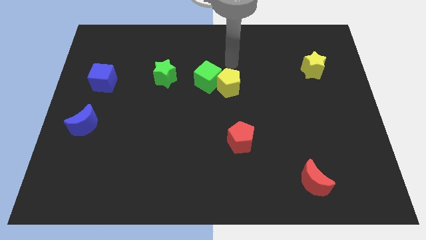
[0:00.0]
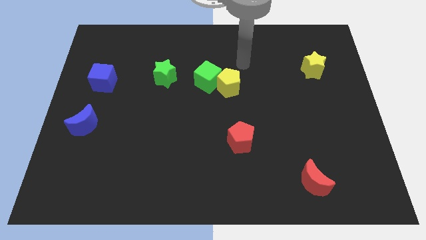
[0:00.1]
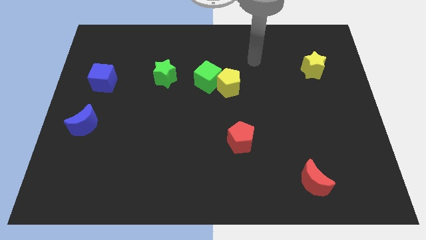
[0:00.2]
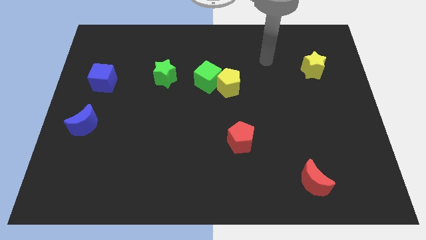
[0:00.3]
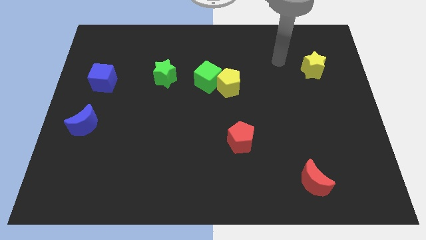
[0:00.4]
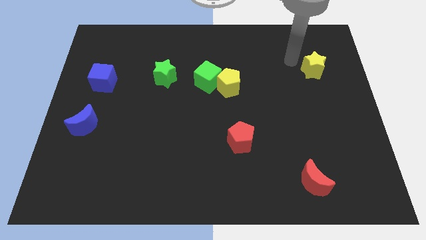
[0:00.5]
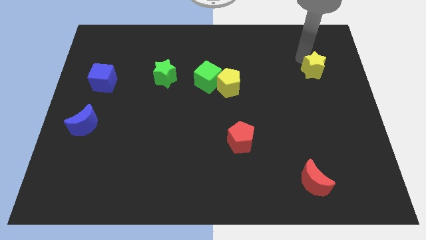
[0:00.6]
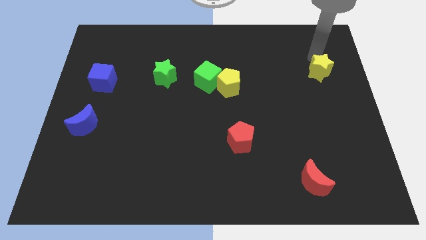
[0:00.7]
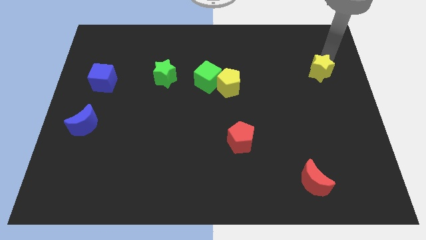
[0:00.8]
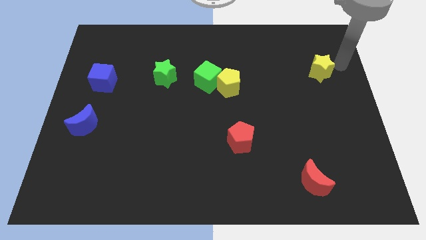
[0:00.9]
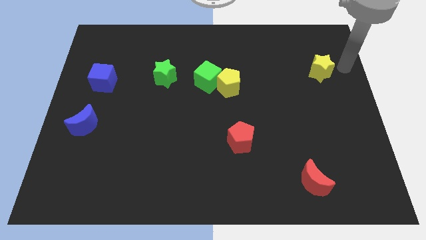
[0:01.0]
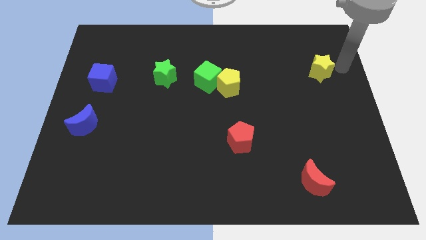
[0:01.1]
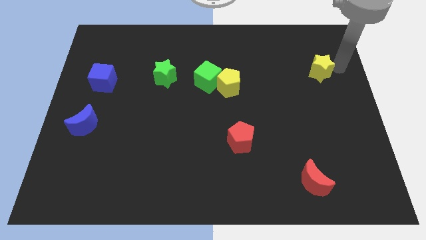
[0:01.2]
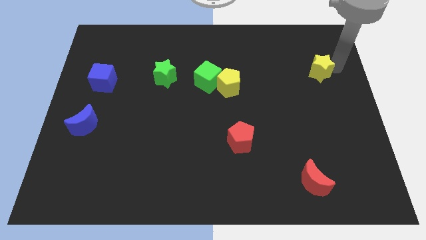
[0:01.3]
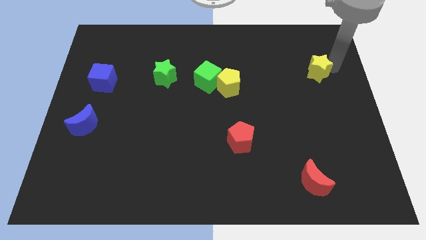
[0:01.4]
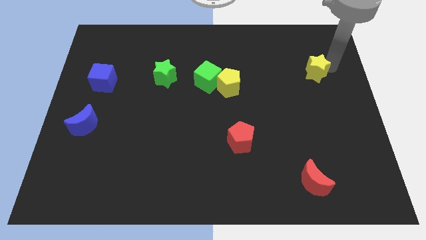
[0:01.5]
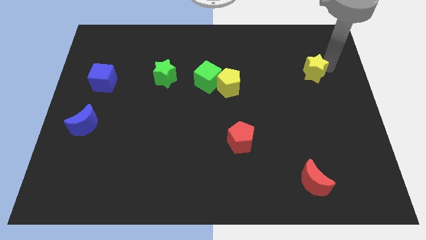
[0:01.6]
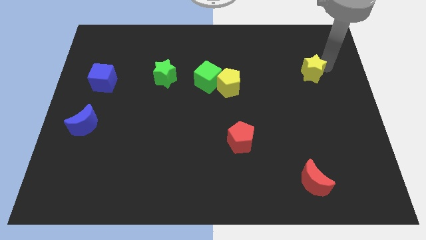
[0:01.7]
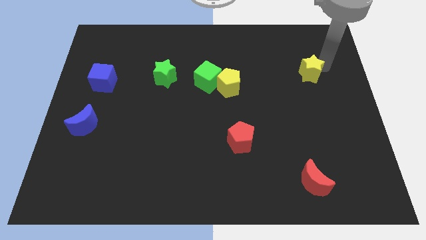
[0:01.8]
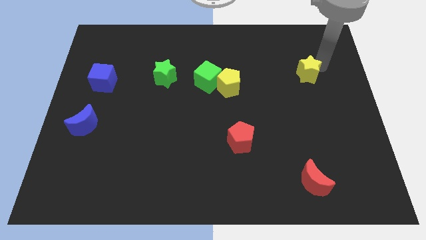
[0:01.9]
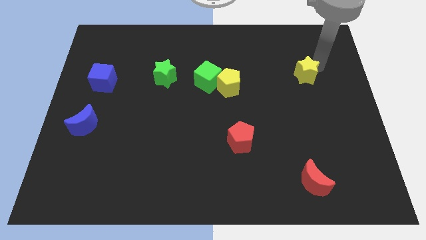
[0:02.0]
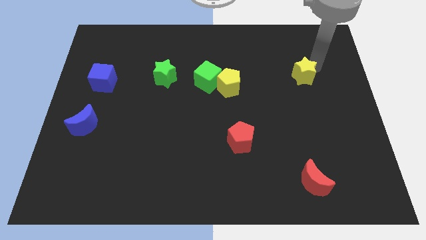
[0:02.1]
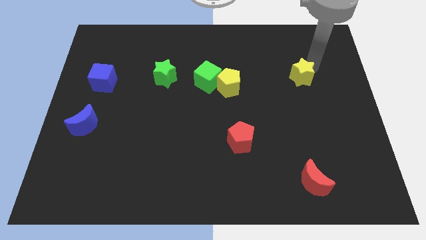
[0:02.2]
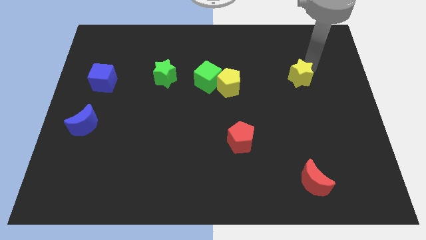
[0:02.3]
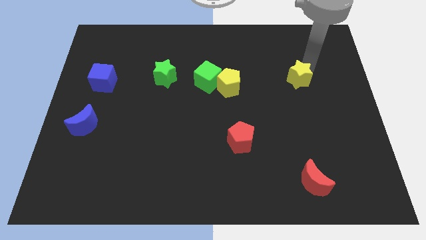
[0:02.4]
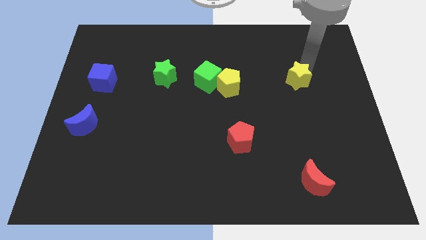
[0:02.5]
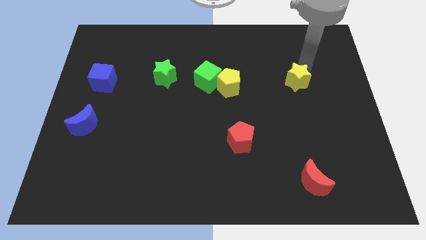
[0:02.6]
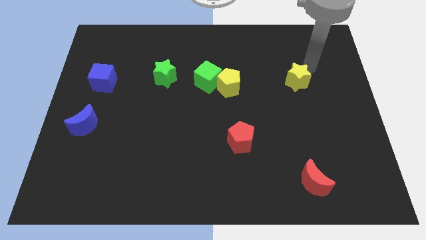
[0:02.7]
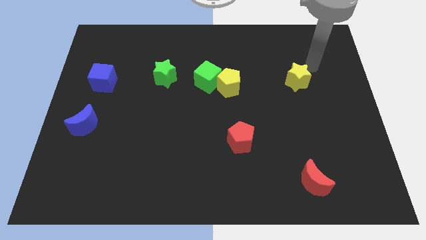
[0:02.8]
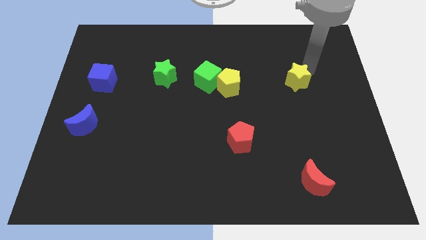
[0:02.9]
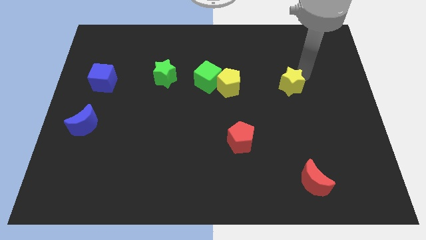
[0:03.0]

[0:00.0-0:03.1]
push the yellow star slightly downwards and to the left

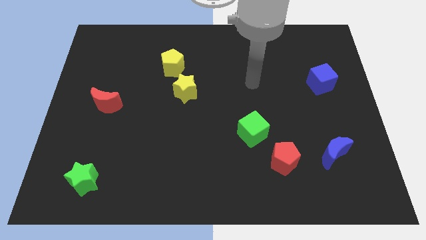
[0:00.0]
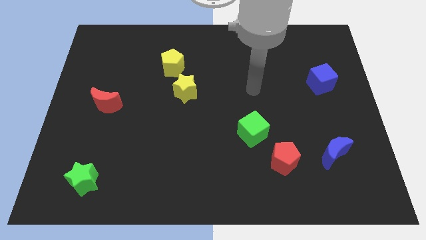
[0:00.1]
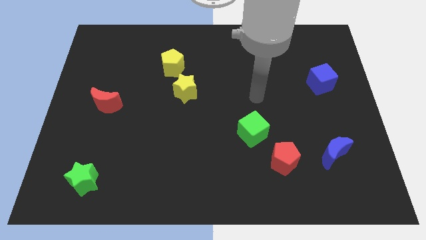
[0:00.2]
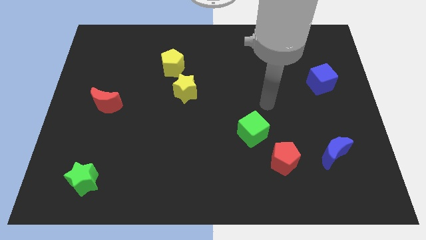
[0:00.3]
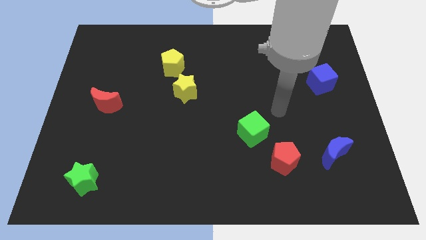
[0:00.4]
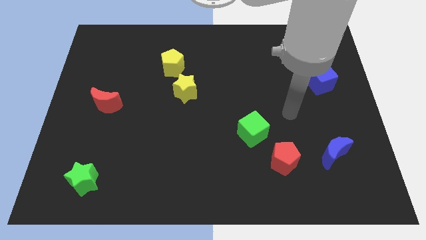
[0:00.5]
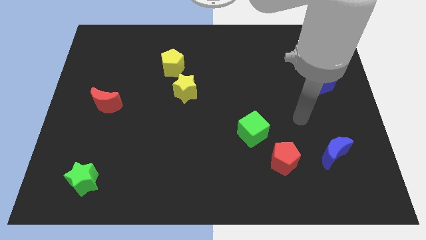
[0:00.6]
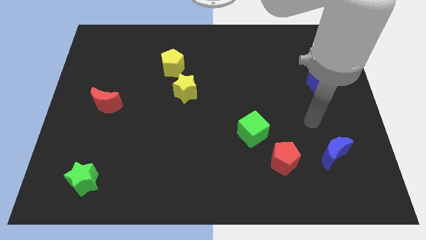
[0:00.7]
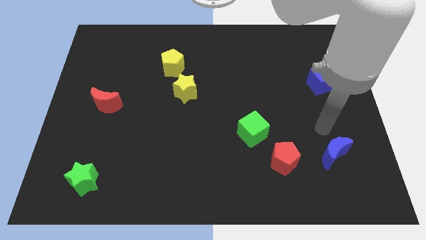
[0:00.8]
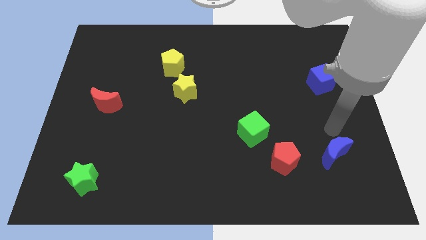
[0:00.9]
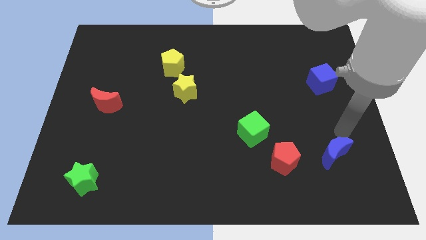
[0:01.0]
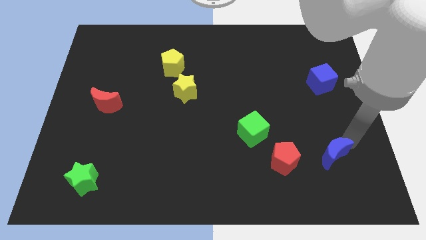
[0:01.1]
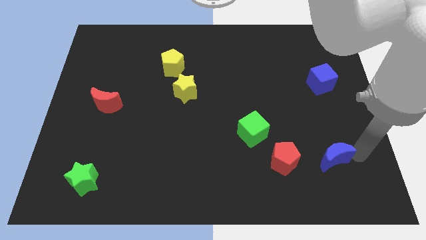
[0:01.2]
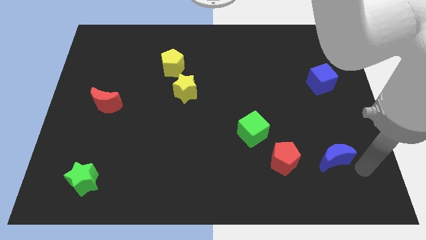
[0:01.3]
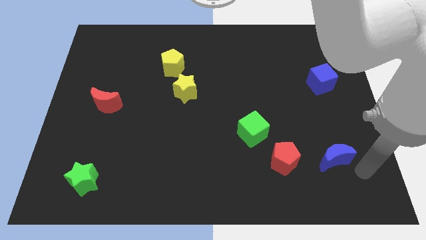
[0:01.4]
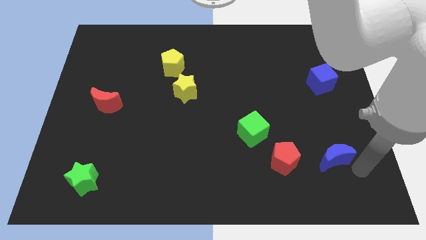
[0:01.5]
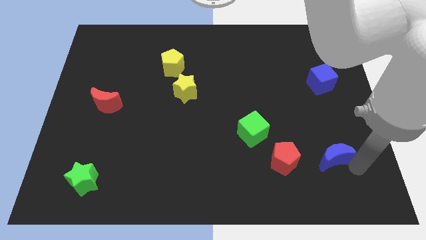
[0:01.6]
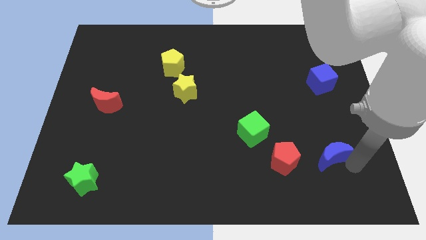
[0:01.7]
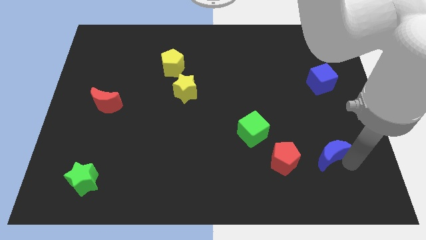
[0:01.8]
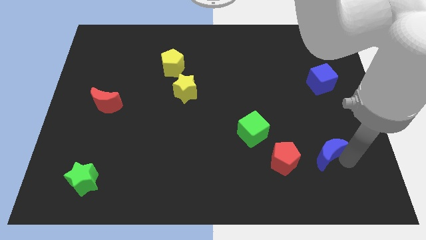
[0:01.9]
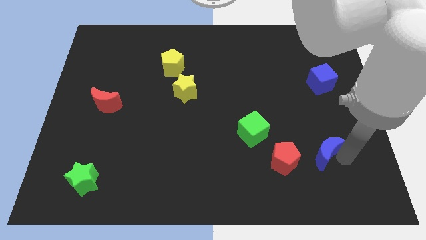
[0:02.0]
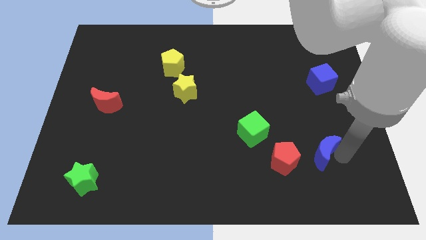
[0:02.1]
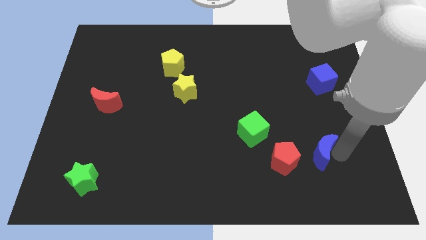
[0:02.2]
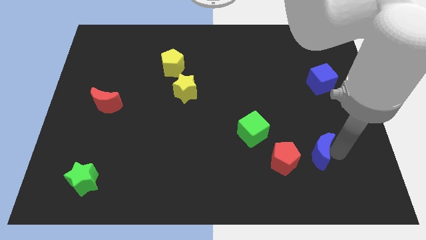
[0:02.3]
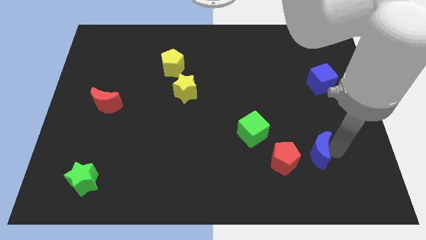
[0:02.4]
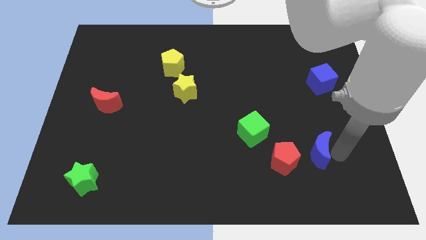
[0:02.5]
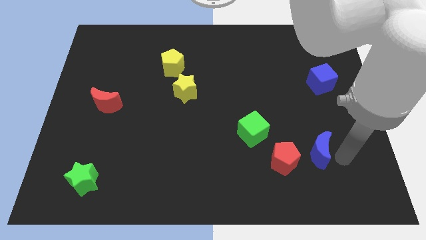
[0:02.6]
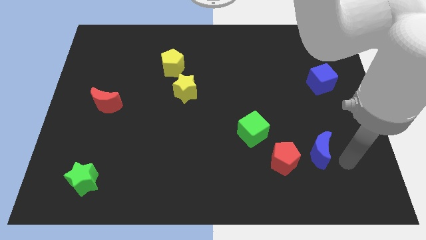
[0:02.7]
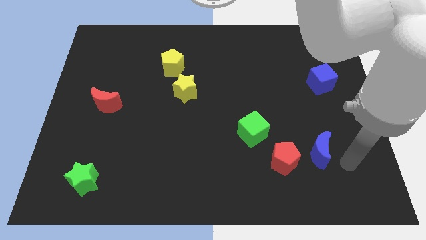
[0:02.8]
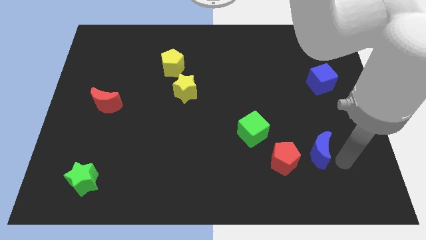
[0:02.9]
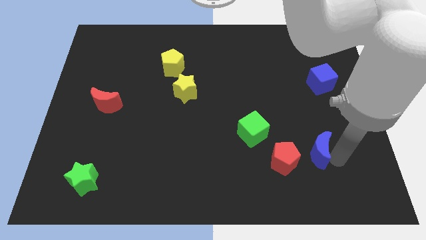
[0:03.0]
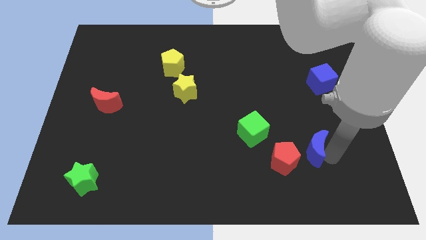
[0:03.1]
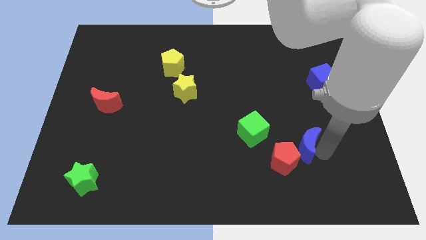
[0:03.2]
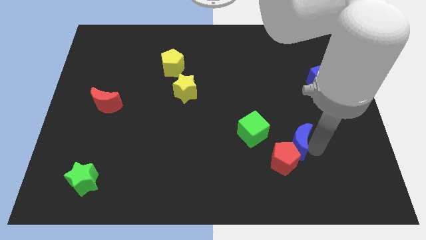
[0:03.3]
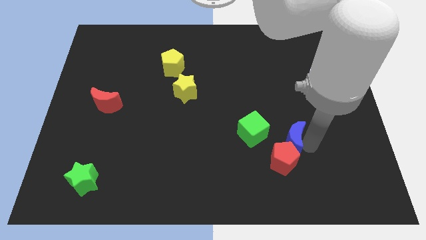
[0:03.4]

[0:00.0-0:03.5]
slide the blue moon a little bit left

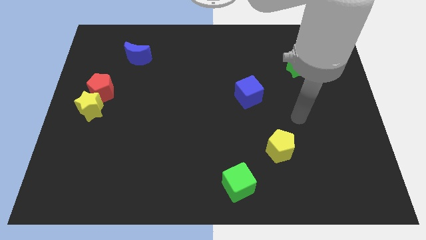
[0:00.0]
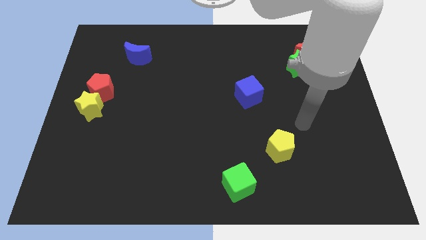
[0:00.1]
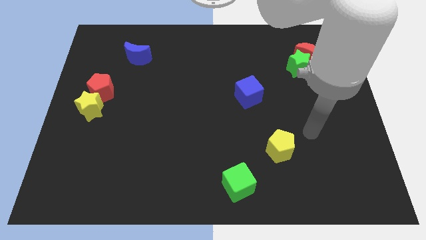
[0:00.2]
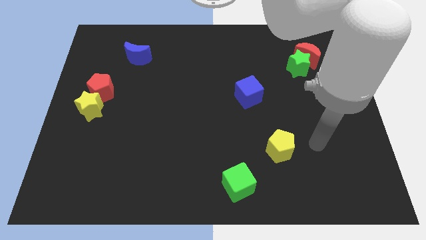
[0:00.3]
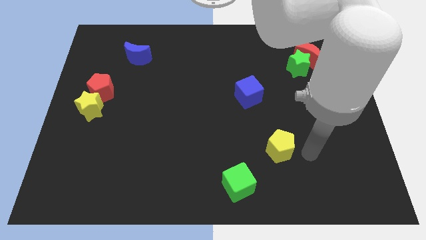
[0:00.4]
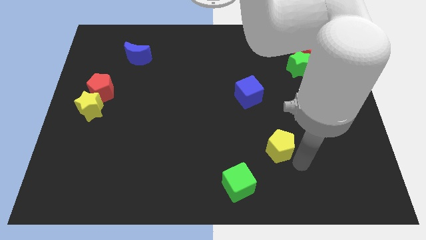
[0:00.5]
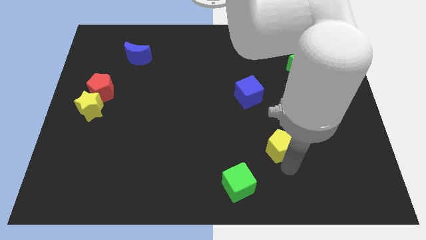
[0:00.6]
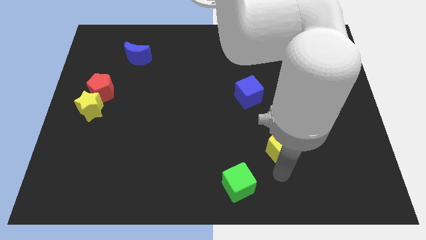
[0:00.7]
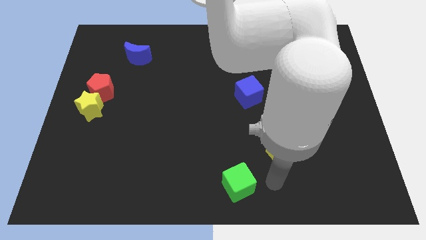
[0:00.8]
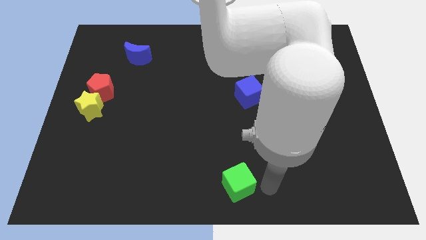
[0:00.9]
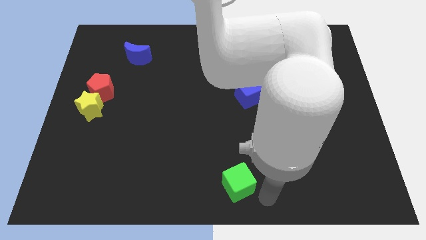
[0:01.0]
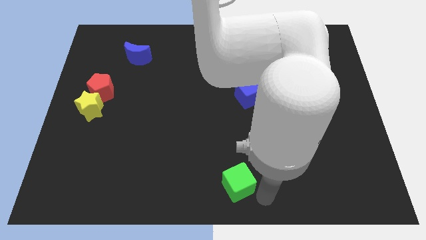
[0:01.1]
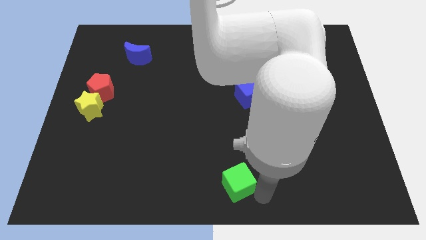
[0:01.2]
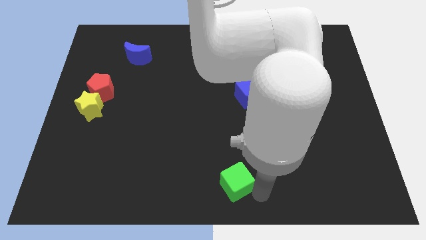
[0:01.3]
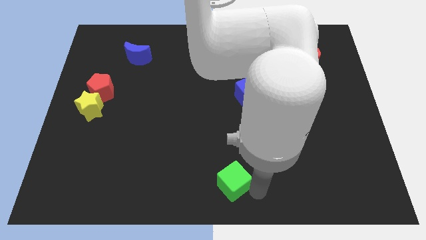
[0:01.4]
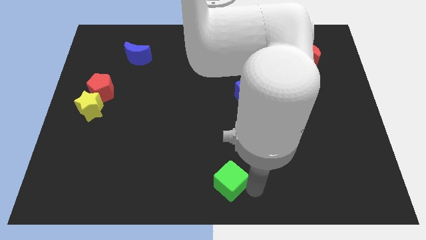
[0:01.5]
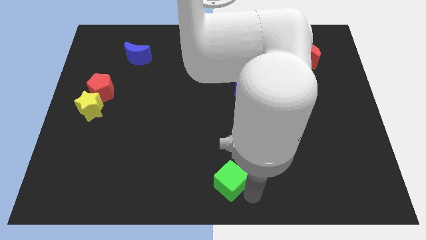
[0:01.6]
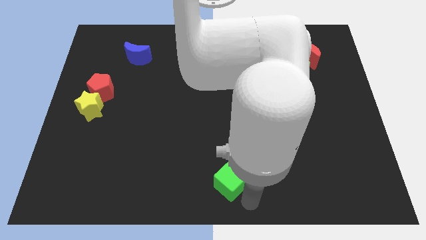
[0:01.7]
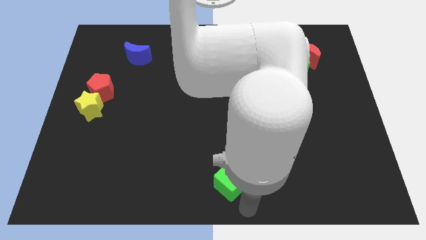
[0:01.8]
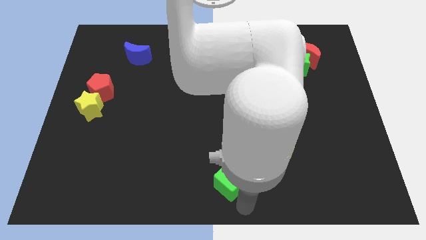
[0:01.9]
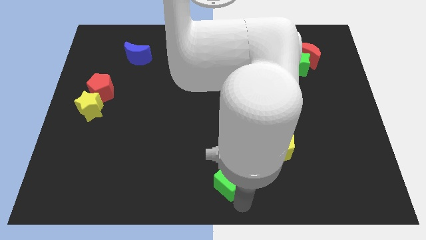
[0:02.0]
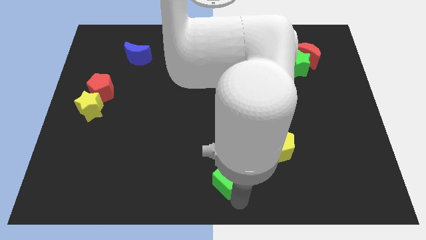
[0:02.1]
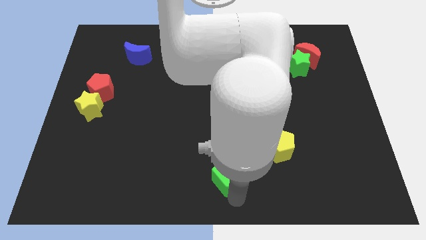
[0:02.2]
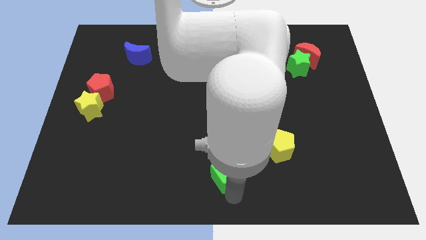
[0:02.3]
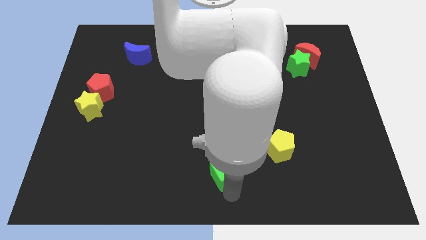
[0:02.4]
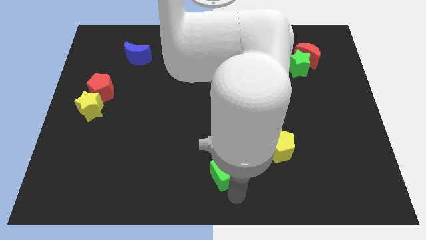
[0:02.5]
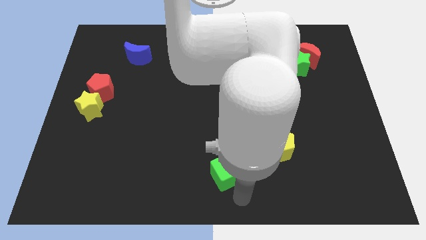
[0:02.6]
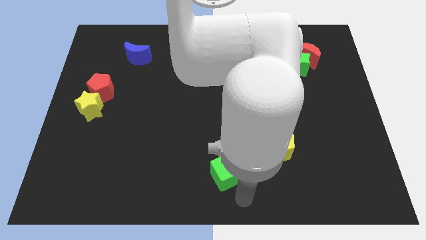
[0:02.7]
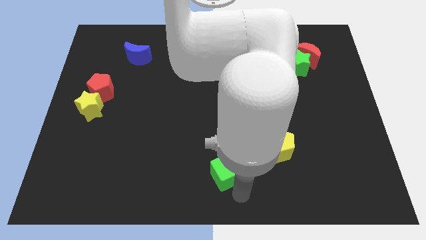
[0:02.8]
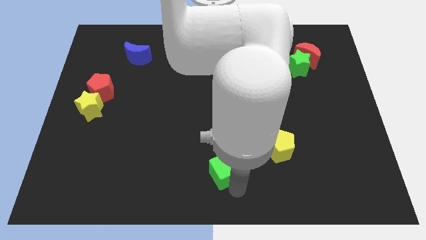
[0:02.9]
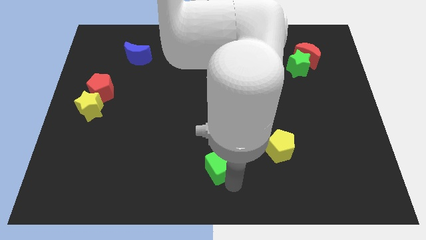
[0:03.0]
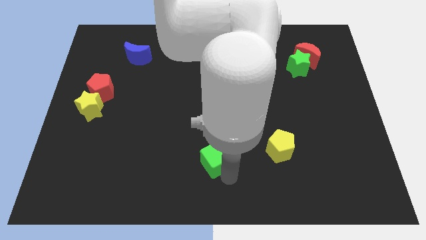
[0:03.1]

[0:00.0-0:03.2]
slightly move the green cube diagonally upwards and left
